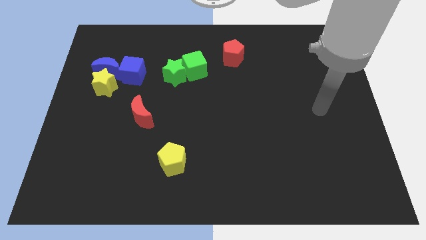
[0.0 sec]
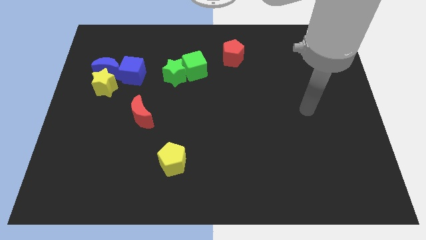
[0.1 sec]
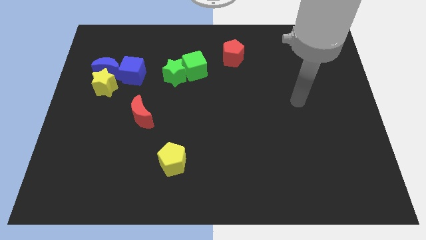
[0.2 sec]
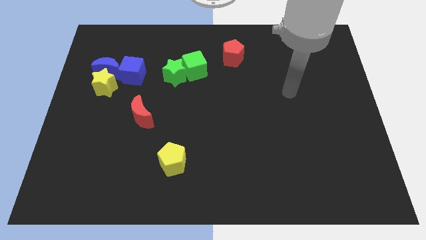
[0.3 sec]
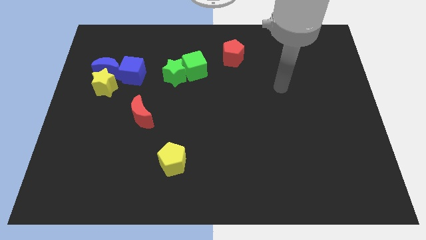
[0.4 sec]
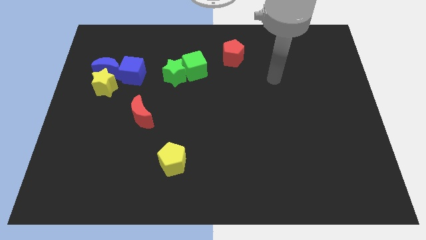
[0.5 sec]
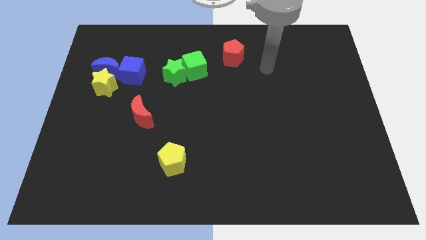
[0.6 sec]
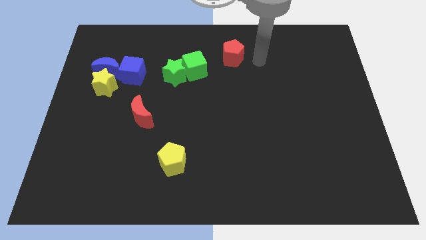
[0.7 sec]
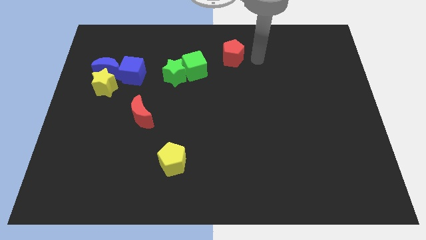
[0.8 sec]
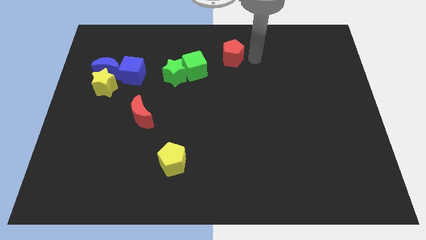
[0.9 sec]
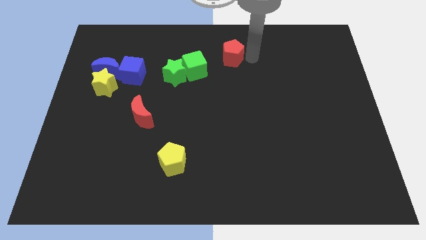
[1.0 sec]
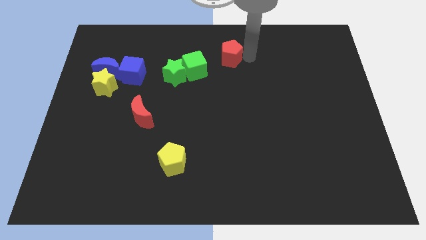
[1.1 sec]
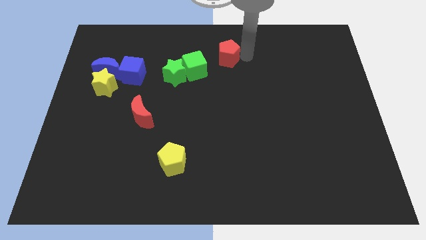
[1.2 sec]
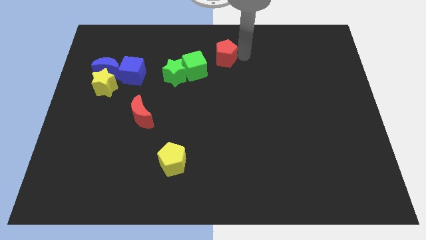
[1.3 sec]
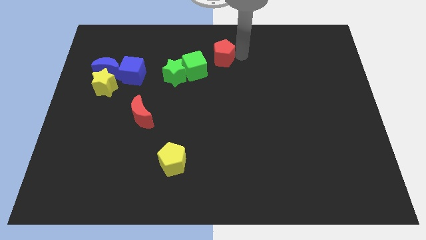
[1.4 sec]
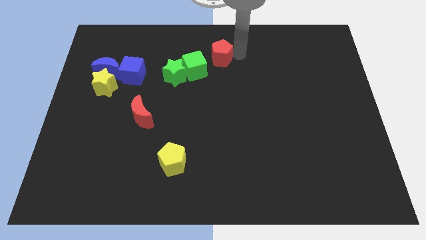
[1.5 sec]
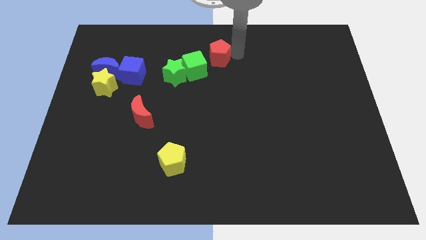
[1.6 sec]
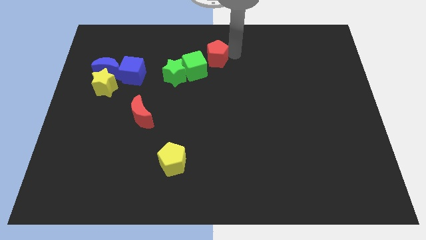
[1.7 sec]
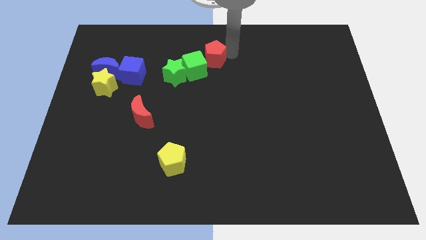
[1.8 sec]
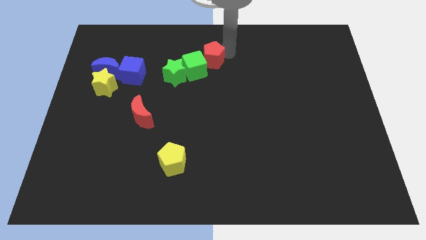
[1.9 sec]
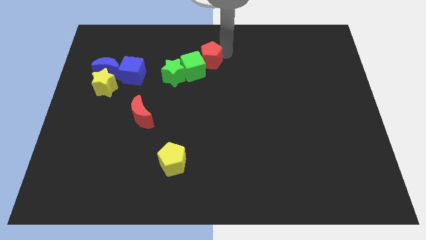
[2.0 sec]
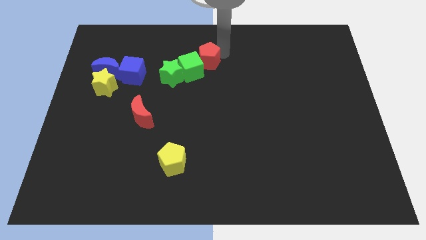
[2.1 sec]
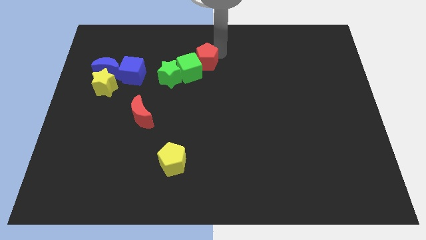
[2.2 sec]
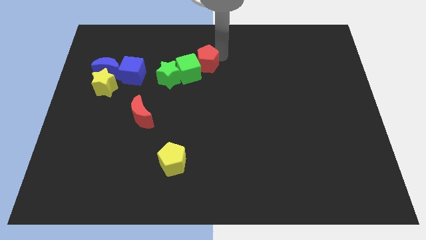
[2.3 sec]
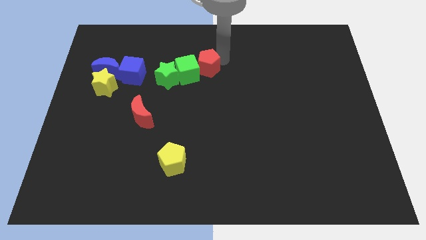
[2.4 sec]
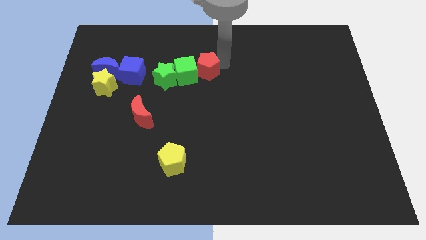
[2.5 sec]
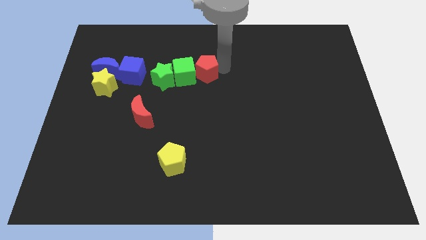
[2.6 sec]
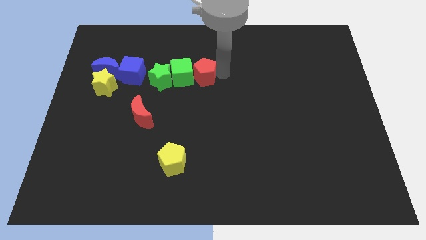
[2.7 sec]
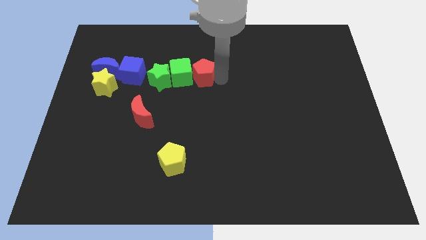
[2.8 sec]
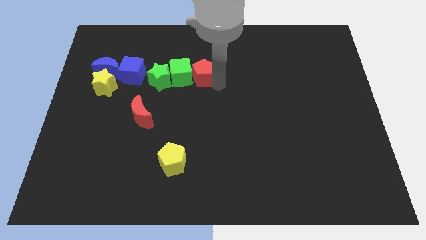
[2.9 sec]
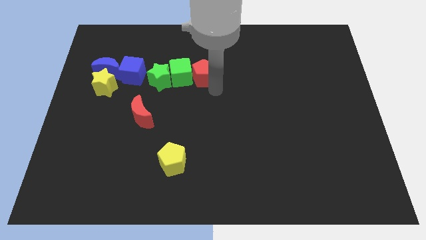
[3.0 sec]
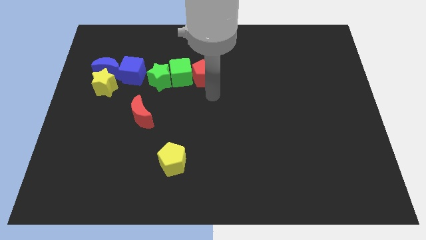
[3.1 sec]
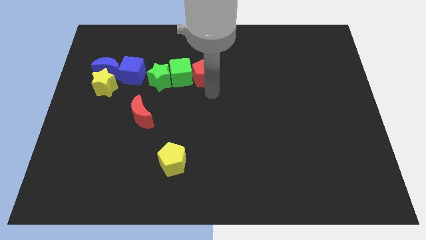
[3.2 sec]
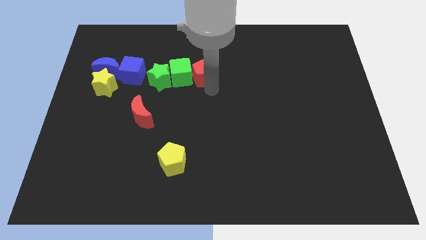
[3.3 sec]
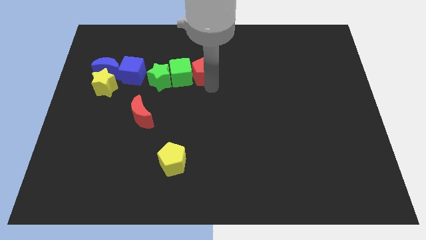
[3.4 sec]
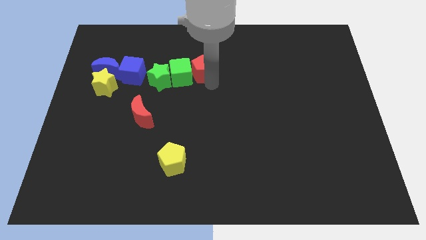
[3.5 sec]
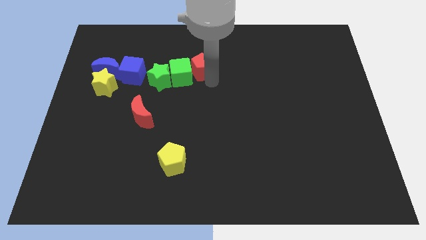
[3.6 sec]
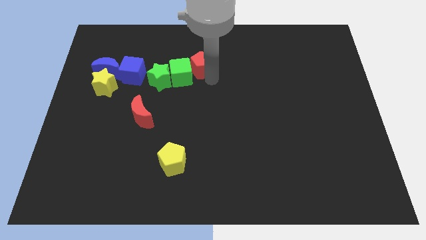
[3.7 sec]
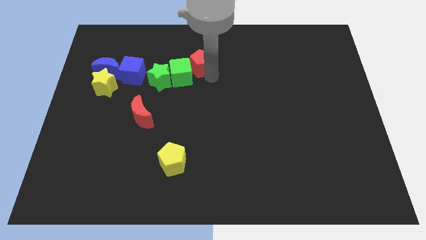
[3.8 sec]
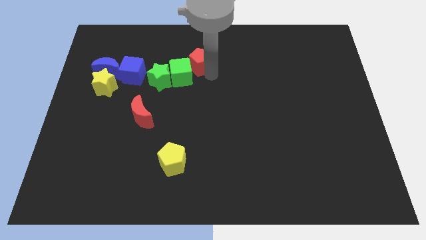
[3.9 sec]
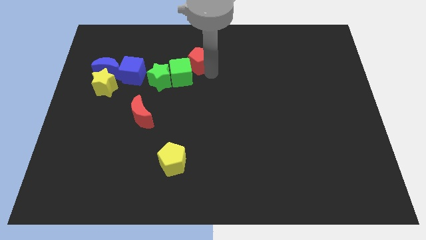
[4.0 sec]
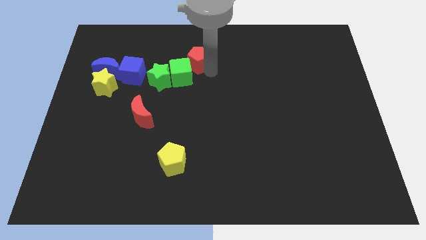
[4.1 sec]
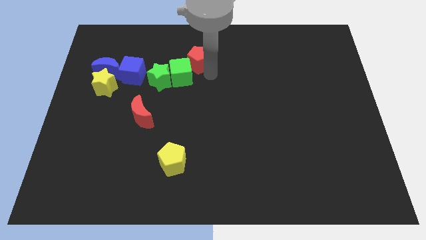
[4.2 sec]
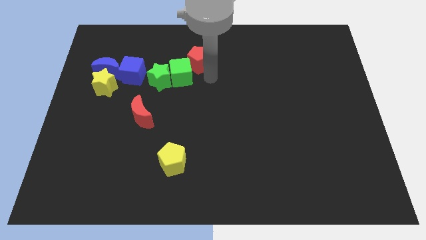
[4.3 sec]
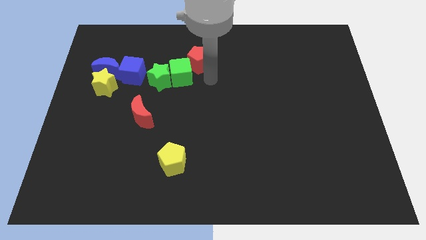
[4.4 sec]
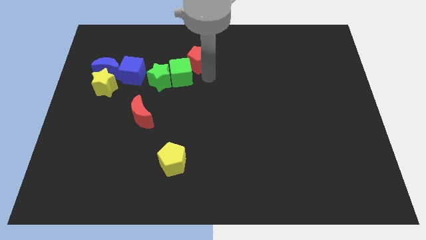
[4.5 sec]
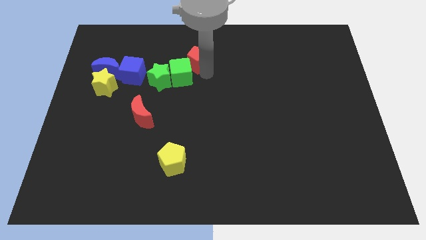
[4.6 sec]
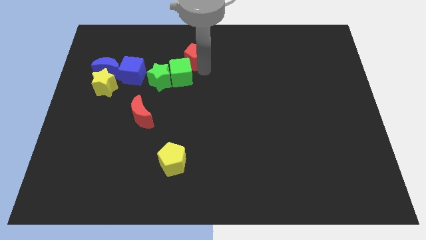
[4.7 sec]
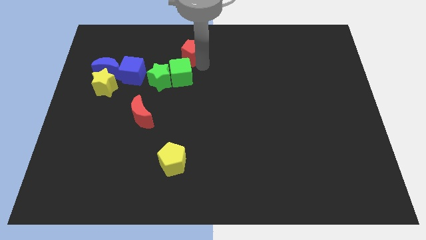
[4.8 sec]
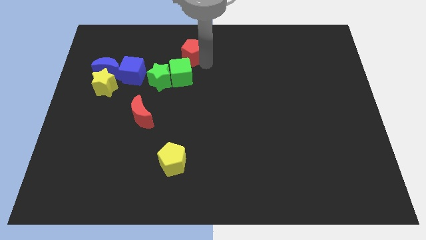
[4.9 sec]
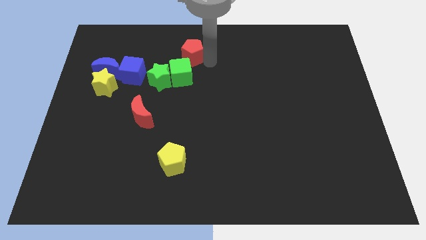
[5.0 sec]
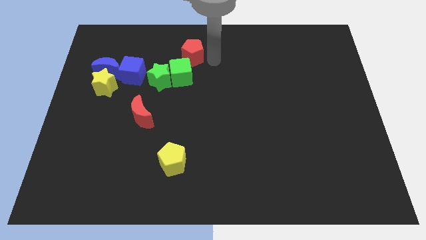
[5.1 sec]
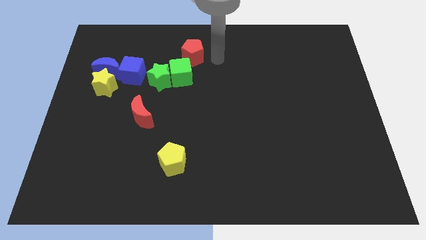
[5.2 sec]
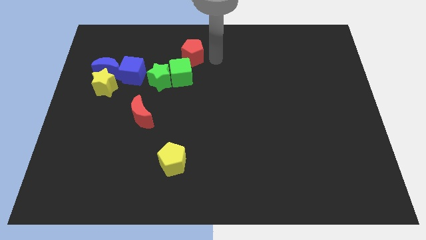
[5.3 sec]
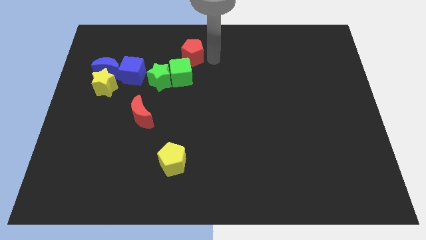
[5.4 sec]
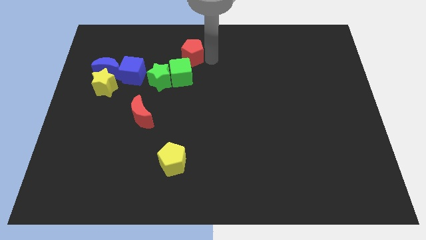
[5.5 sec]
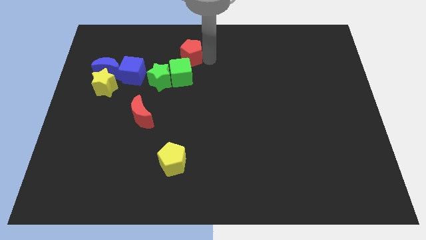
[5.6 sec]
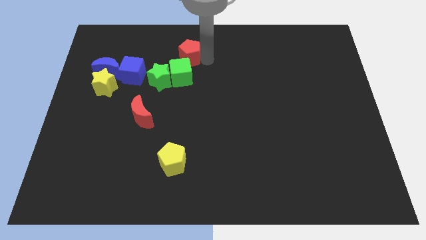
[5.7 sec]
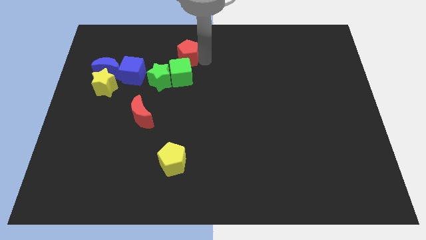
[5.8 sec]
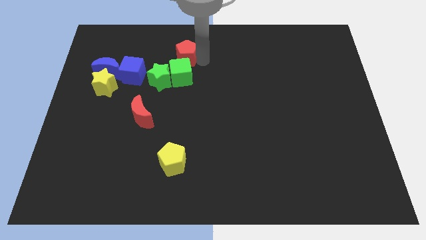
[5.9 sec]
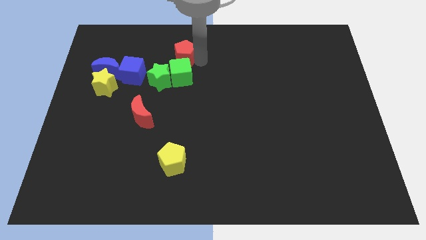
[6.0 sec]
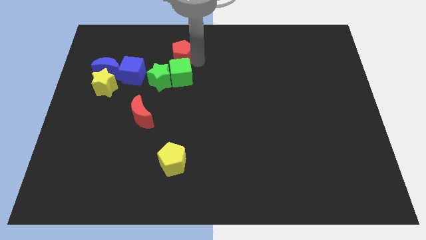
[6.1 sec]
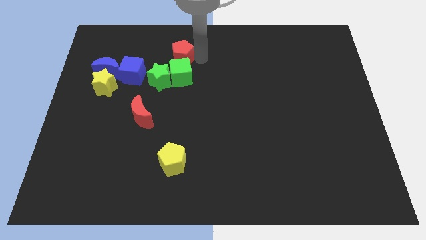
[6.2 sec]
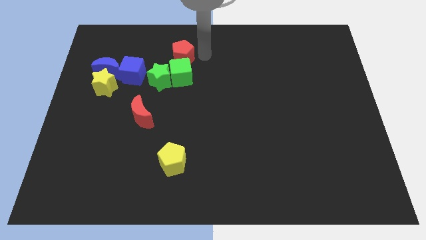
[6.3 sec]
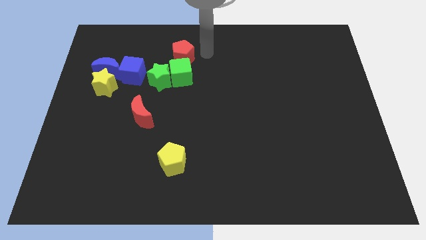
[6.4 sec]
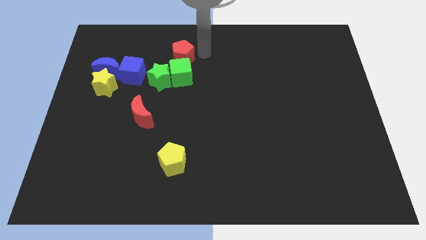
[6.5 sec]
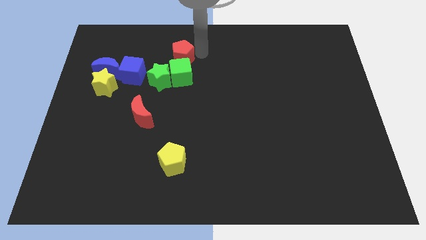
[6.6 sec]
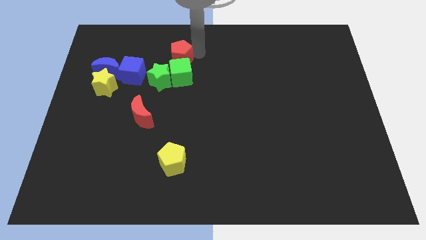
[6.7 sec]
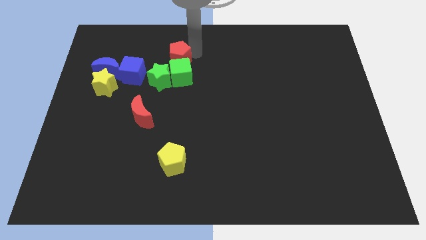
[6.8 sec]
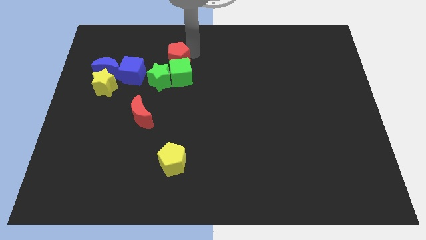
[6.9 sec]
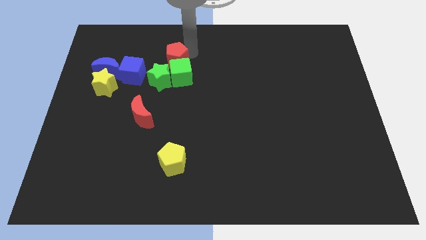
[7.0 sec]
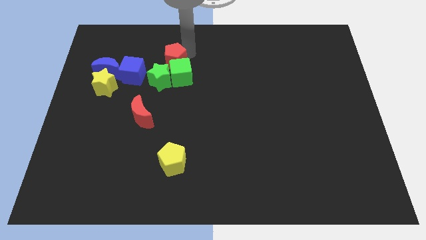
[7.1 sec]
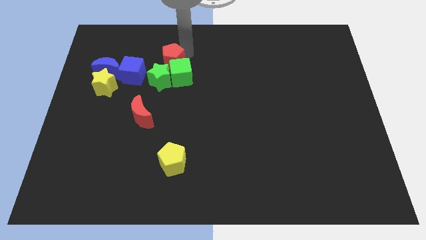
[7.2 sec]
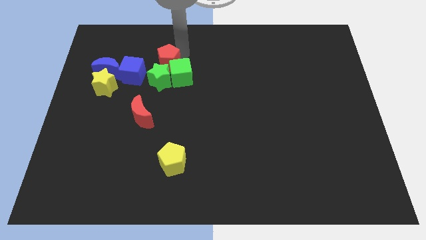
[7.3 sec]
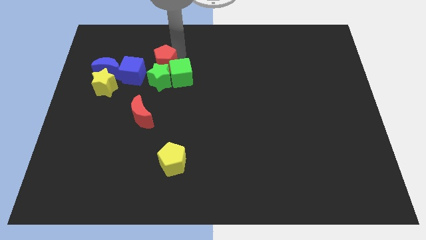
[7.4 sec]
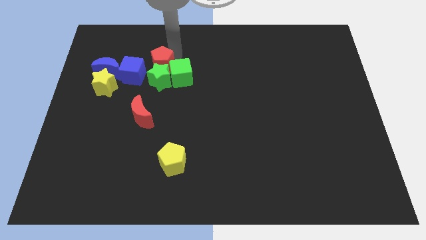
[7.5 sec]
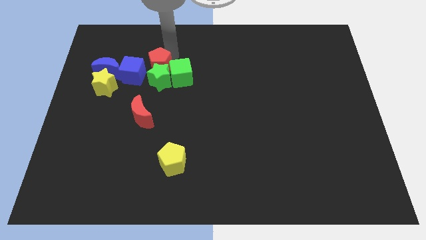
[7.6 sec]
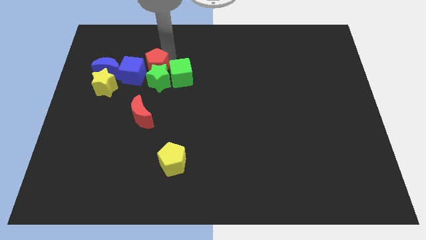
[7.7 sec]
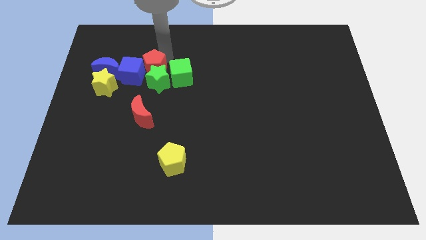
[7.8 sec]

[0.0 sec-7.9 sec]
move the red pentagon close to the blue cube
